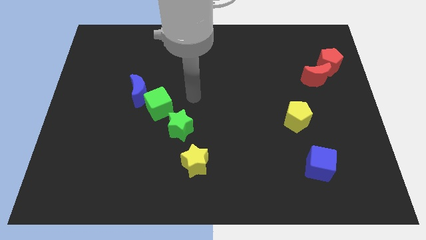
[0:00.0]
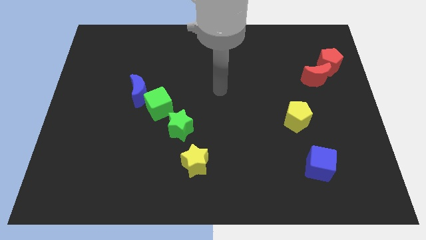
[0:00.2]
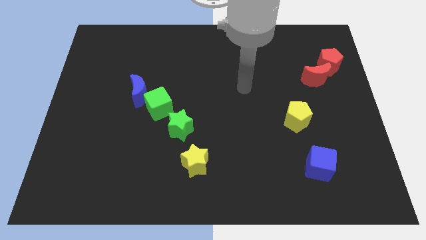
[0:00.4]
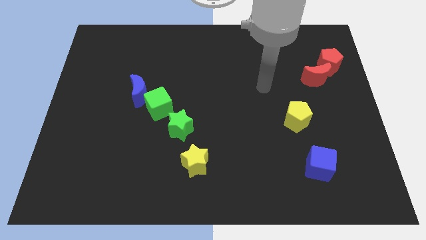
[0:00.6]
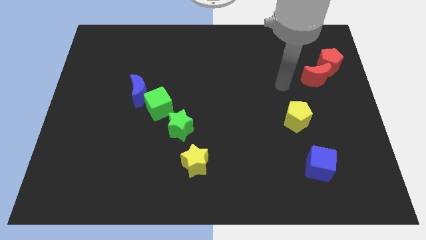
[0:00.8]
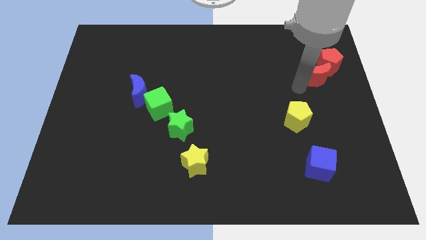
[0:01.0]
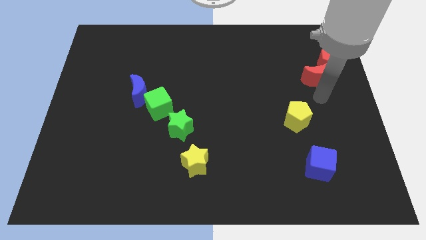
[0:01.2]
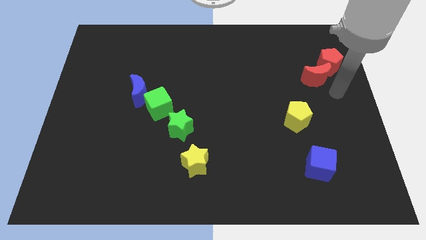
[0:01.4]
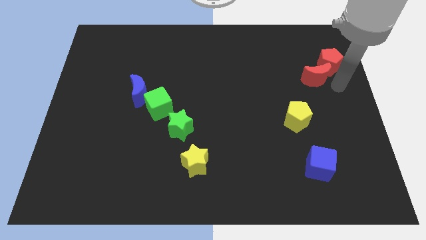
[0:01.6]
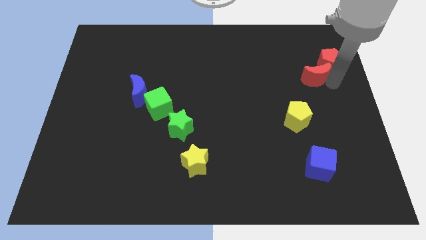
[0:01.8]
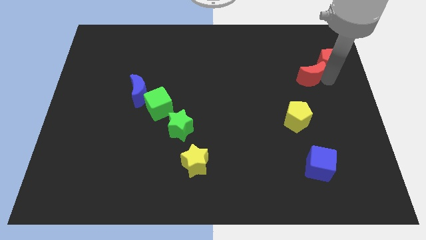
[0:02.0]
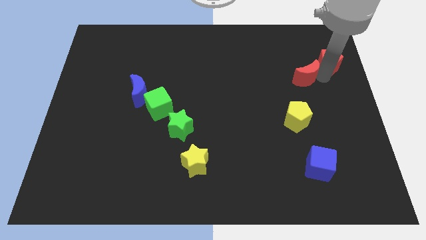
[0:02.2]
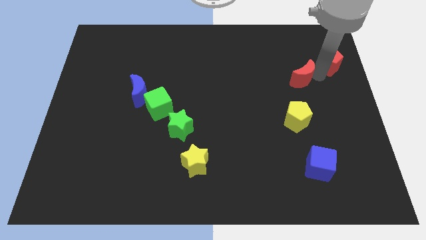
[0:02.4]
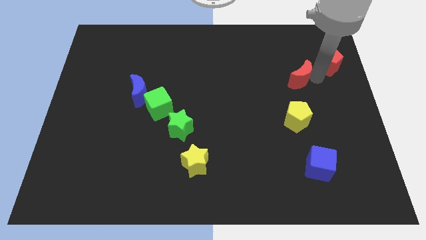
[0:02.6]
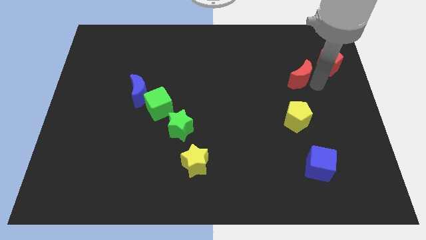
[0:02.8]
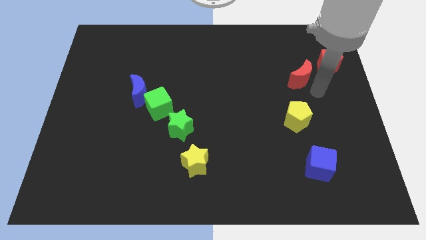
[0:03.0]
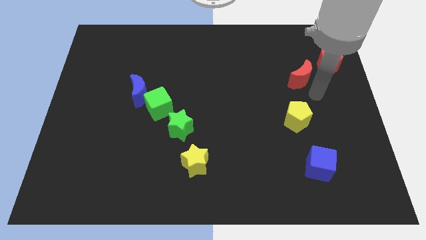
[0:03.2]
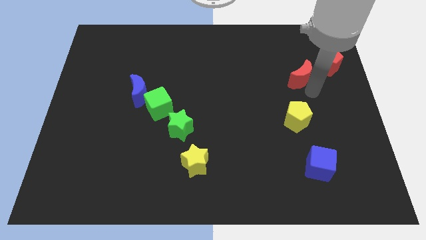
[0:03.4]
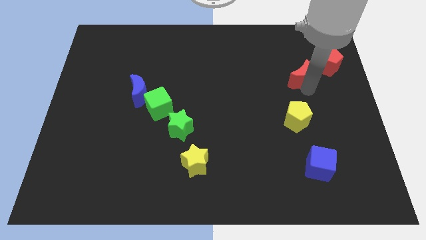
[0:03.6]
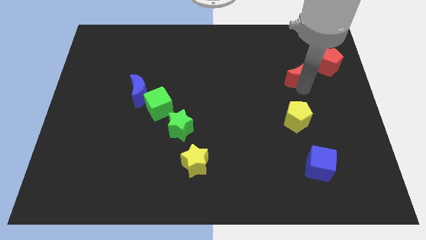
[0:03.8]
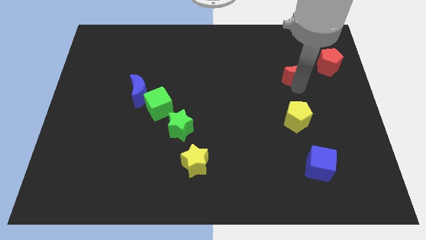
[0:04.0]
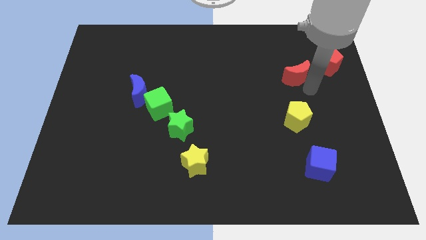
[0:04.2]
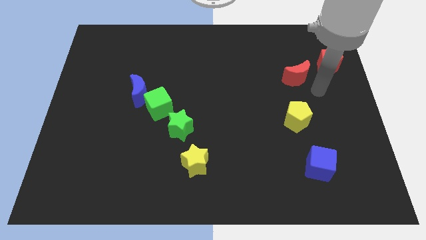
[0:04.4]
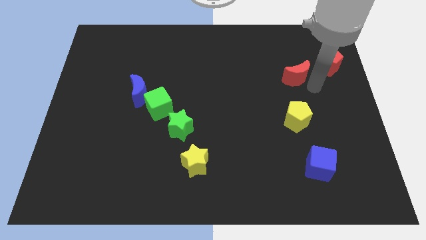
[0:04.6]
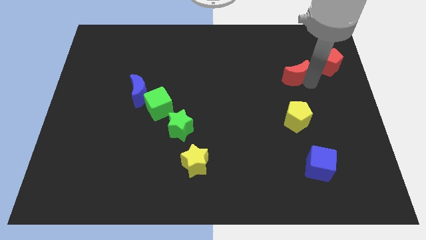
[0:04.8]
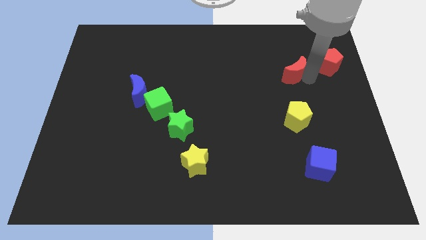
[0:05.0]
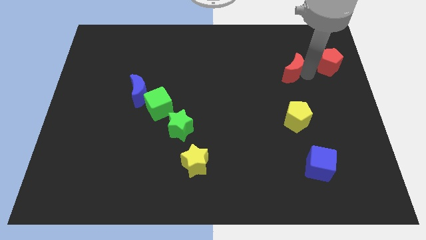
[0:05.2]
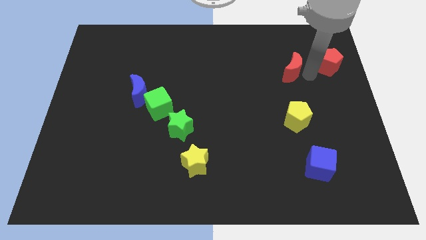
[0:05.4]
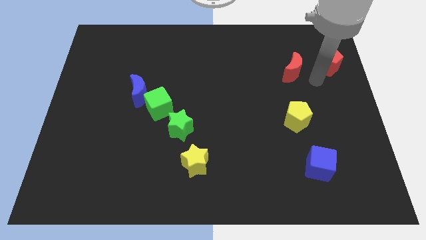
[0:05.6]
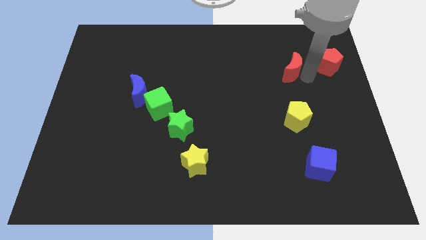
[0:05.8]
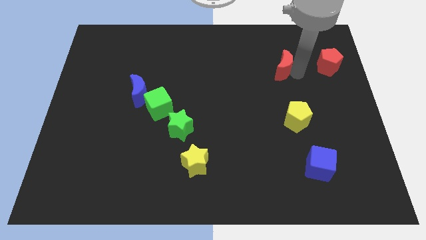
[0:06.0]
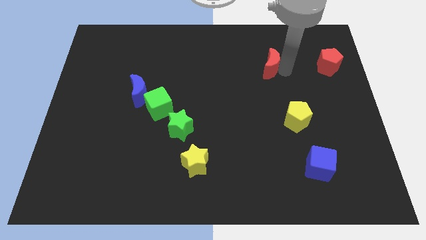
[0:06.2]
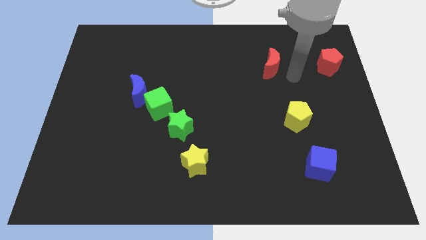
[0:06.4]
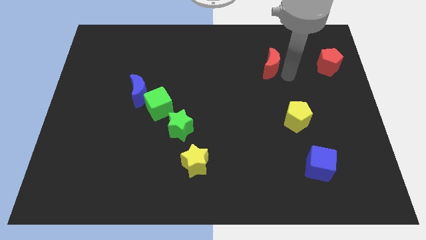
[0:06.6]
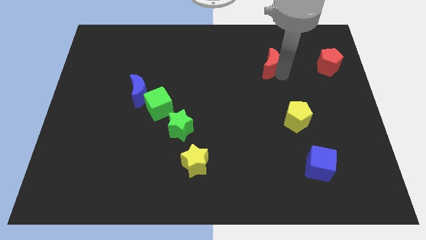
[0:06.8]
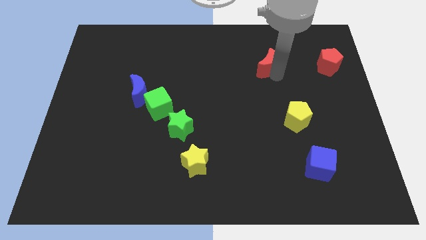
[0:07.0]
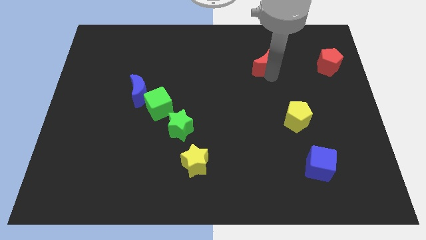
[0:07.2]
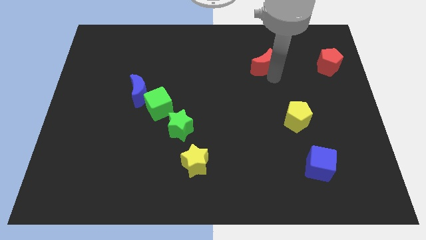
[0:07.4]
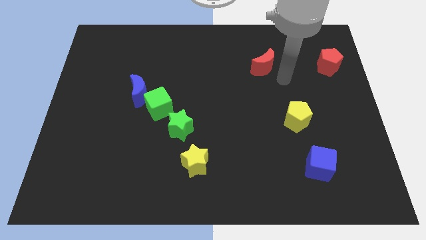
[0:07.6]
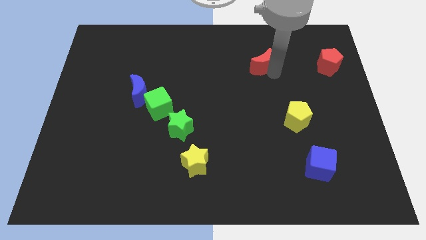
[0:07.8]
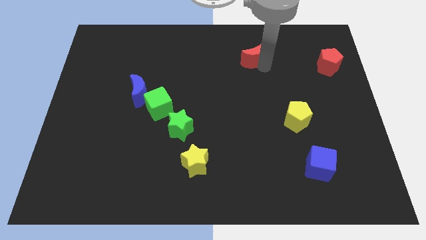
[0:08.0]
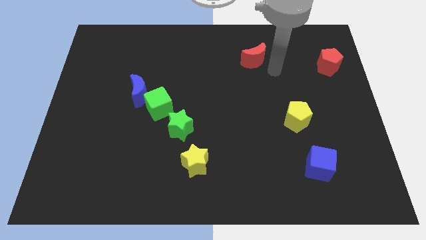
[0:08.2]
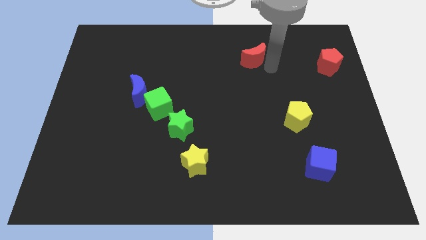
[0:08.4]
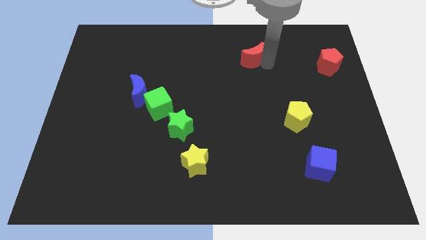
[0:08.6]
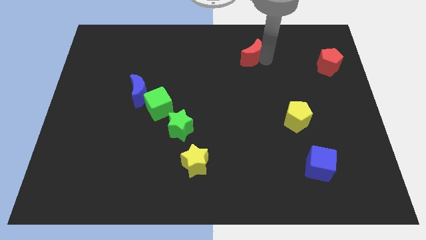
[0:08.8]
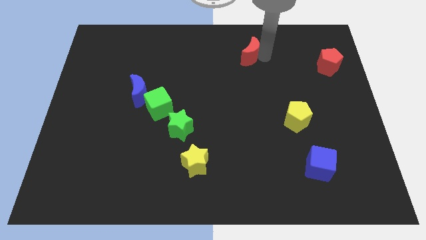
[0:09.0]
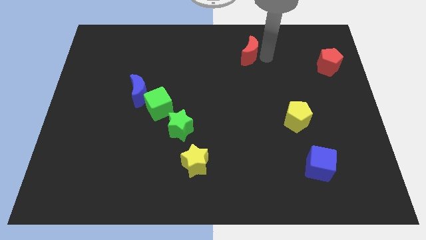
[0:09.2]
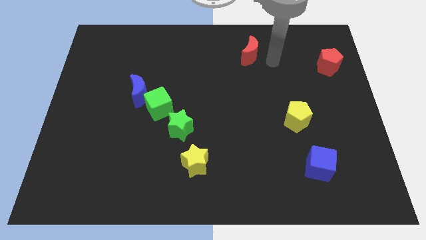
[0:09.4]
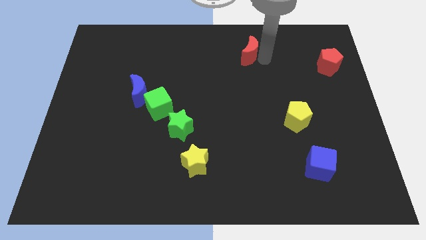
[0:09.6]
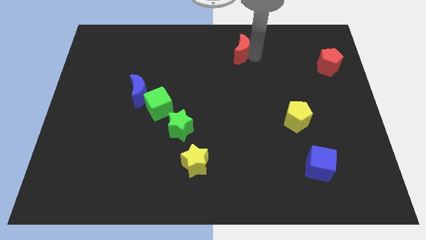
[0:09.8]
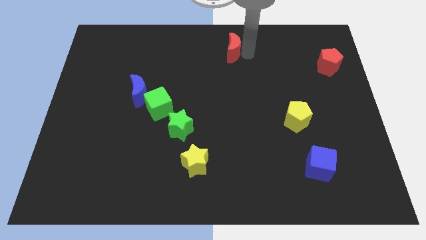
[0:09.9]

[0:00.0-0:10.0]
move the red moon to the top

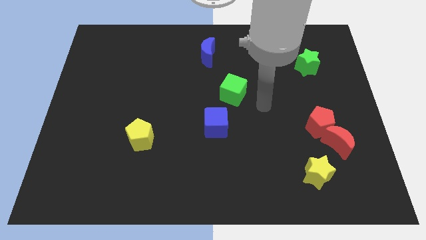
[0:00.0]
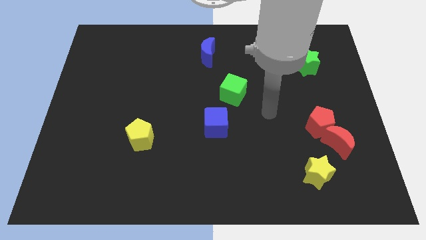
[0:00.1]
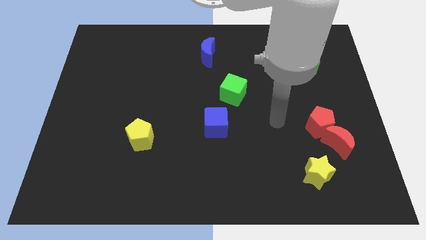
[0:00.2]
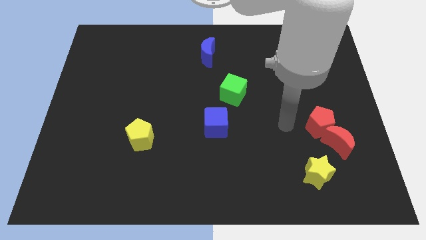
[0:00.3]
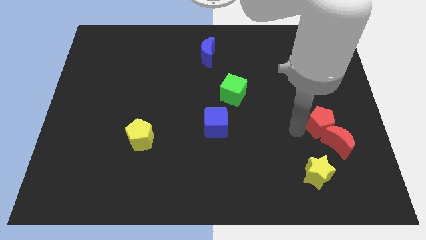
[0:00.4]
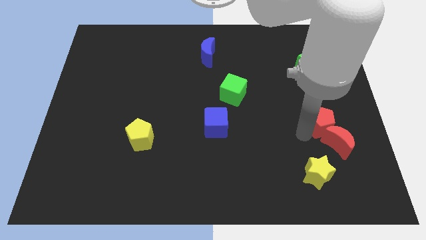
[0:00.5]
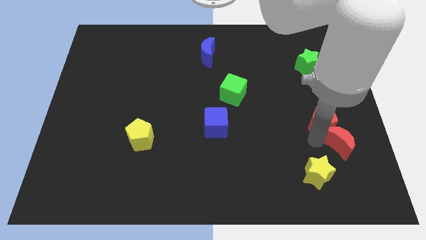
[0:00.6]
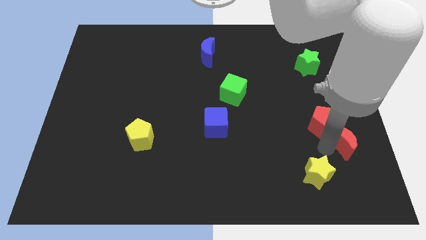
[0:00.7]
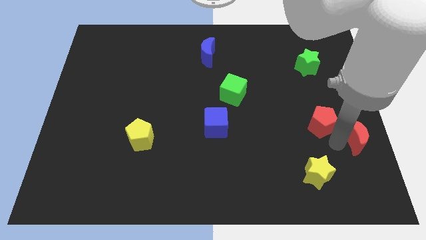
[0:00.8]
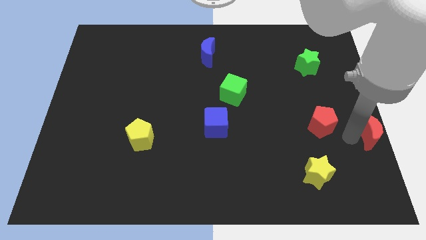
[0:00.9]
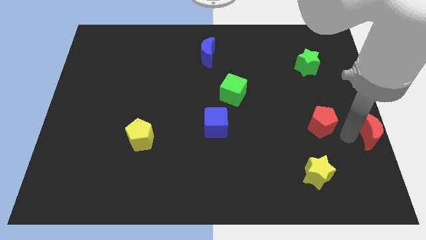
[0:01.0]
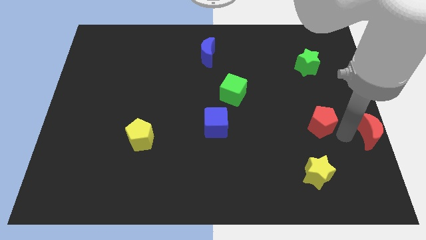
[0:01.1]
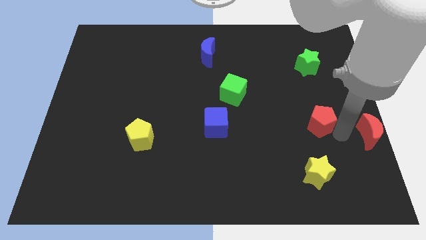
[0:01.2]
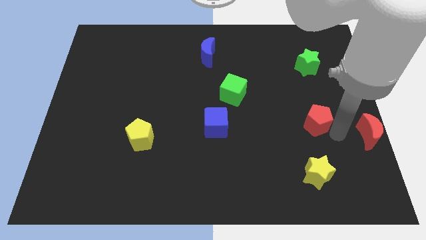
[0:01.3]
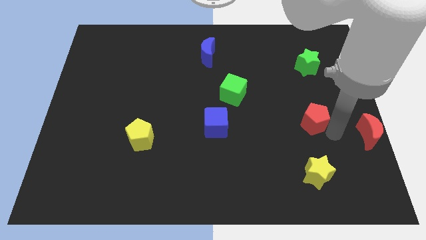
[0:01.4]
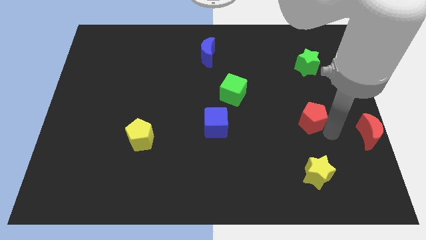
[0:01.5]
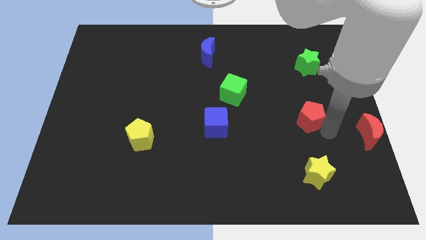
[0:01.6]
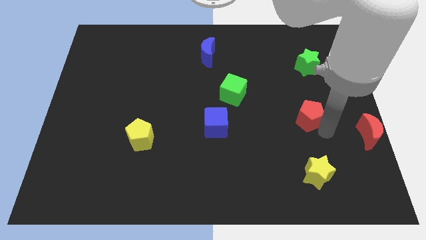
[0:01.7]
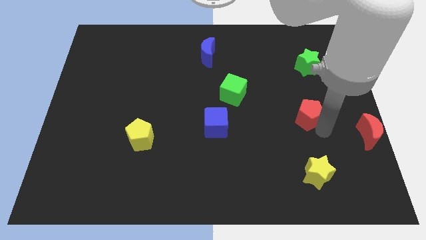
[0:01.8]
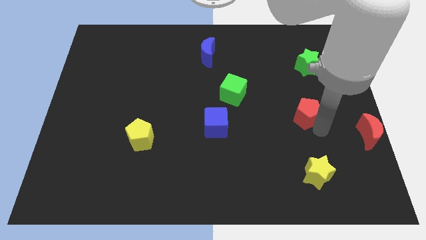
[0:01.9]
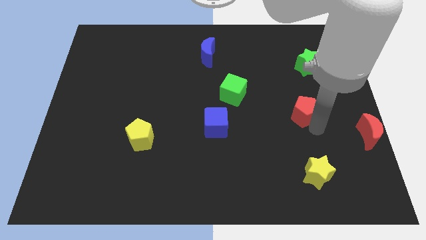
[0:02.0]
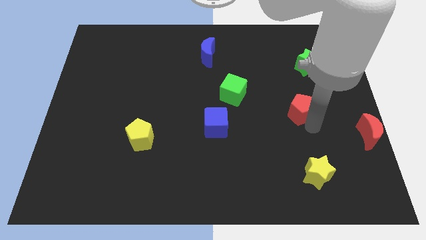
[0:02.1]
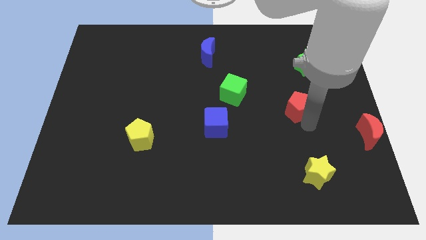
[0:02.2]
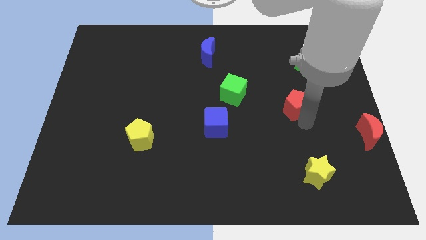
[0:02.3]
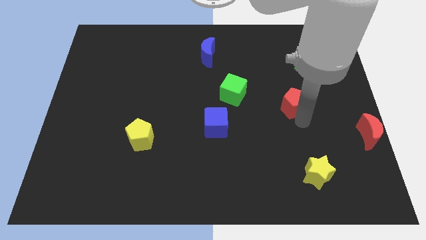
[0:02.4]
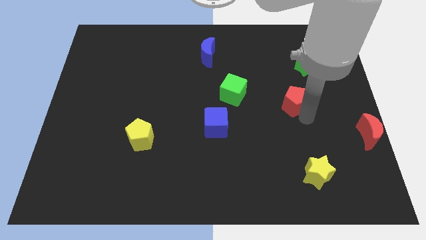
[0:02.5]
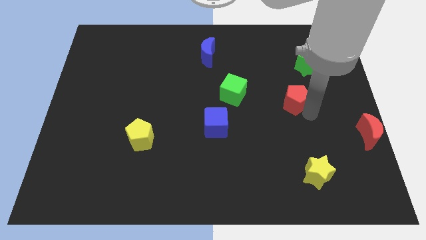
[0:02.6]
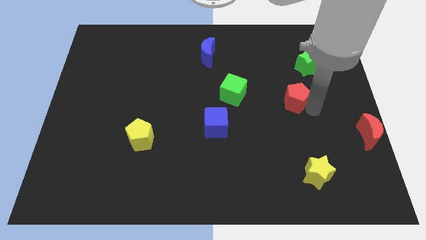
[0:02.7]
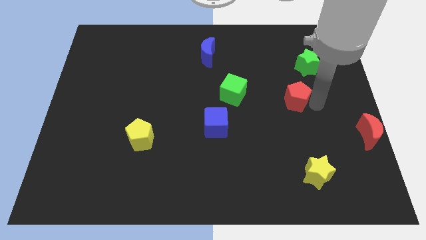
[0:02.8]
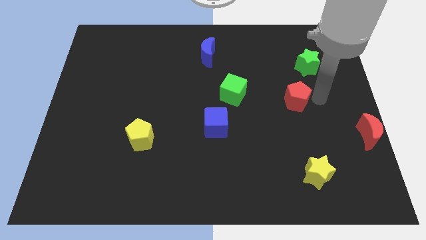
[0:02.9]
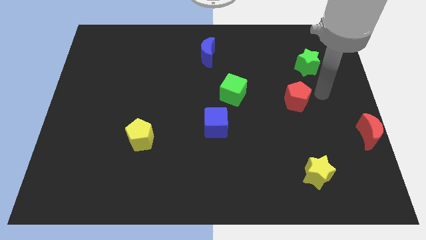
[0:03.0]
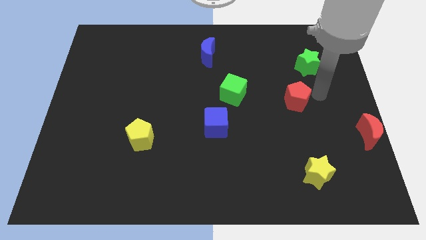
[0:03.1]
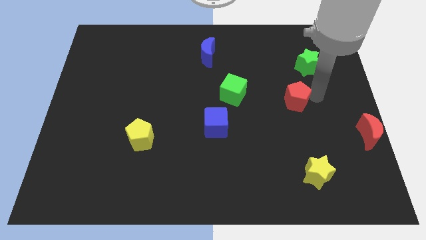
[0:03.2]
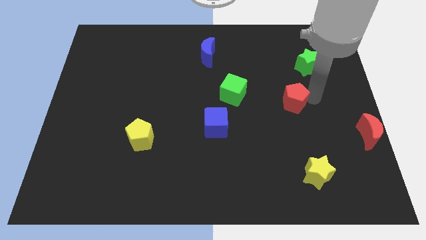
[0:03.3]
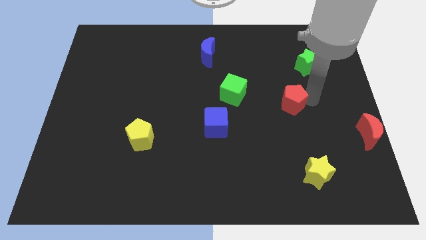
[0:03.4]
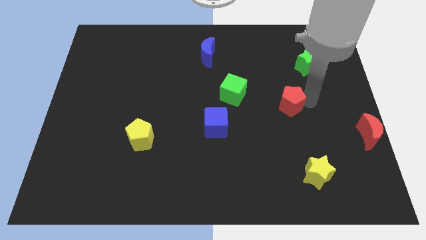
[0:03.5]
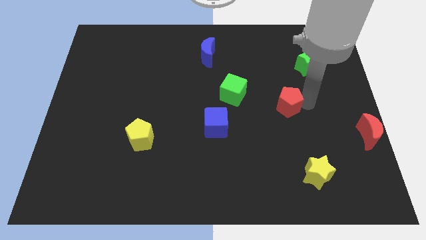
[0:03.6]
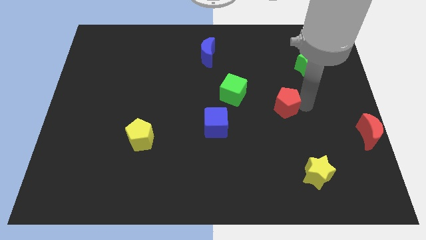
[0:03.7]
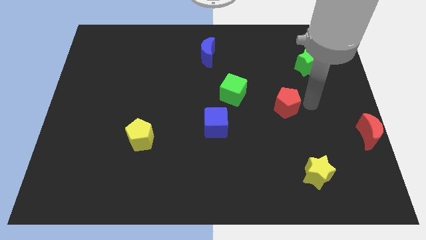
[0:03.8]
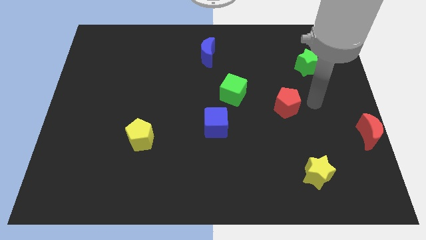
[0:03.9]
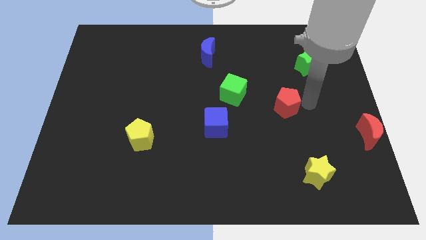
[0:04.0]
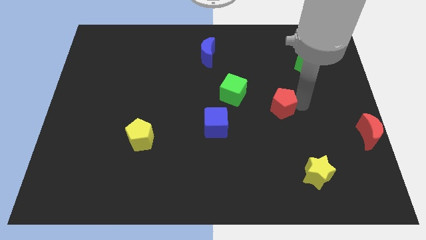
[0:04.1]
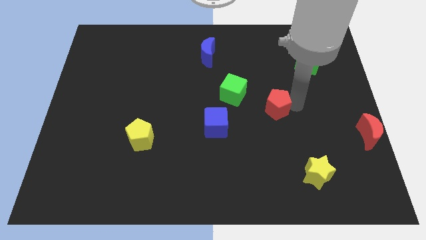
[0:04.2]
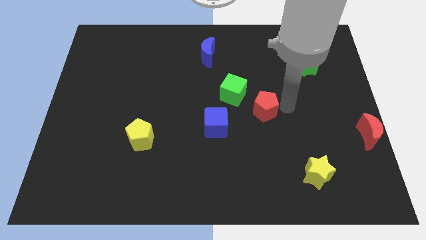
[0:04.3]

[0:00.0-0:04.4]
push the red pentagon to the center of the board
